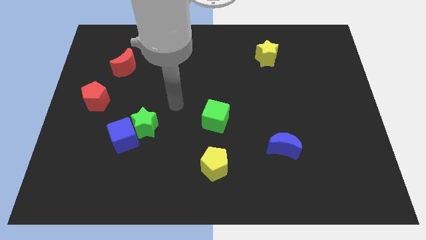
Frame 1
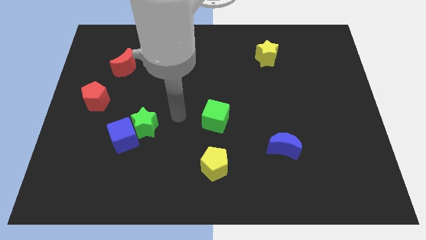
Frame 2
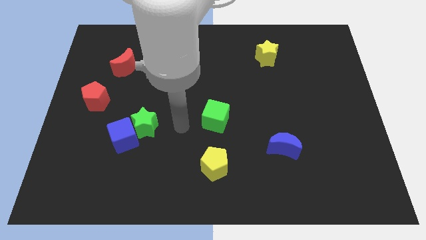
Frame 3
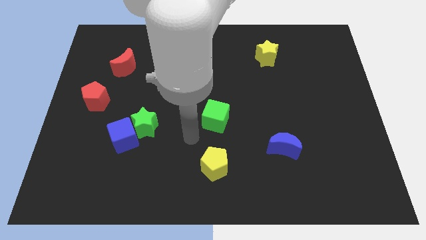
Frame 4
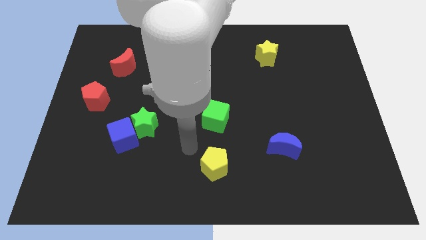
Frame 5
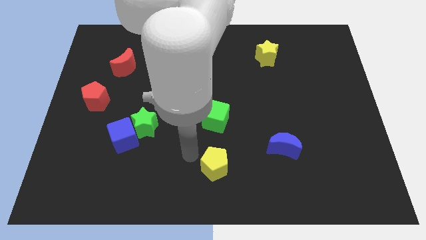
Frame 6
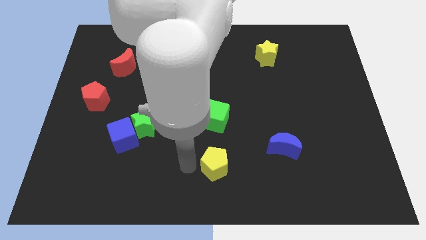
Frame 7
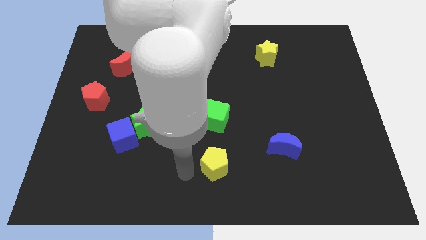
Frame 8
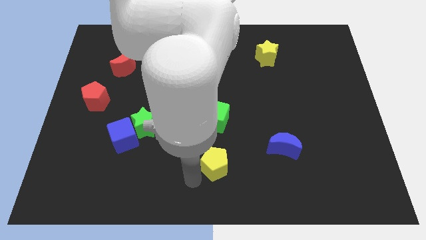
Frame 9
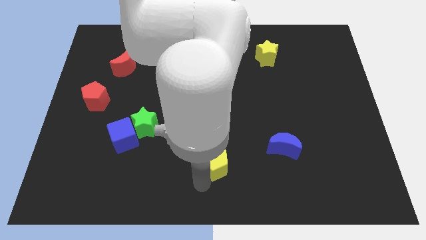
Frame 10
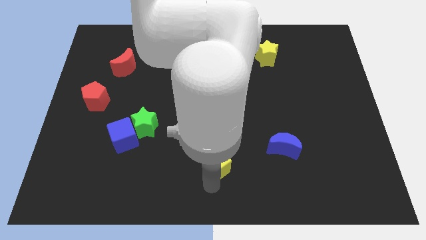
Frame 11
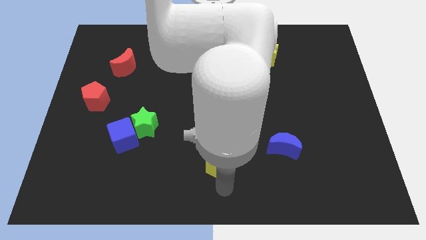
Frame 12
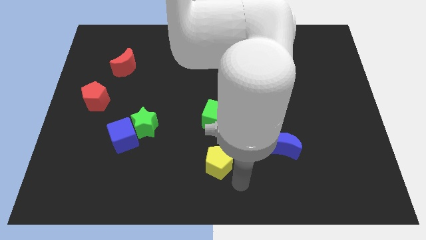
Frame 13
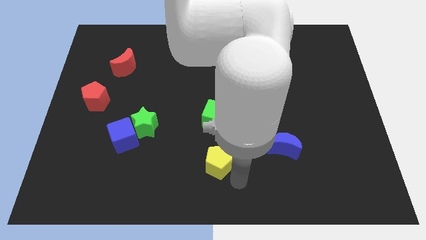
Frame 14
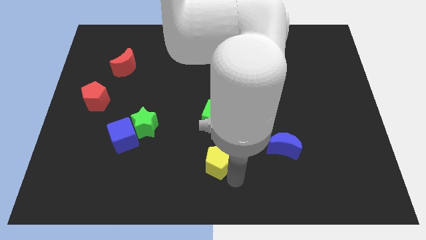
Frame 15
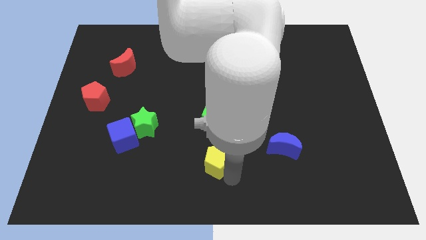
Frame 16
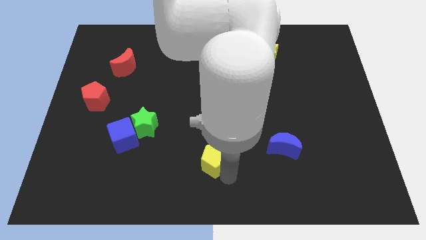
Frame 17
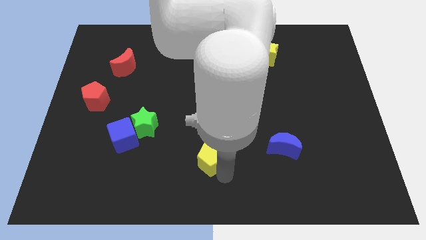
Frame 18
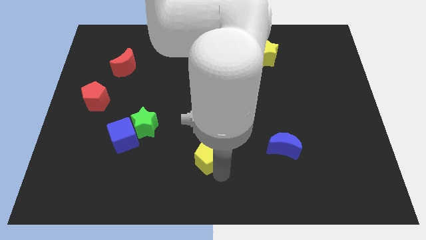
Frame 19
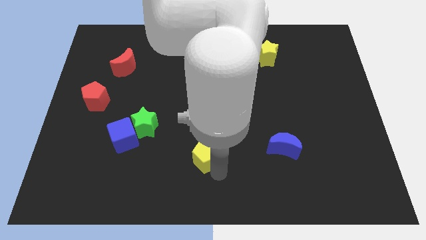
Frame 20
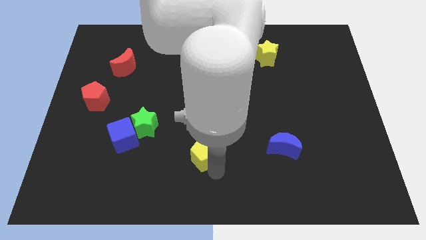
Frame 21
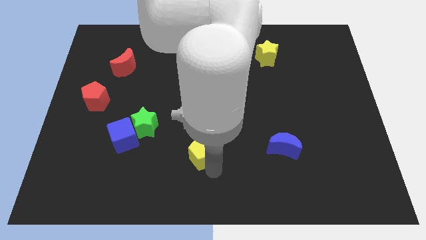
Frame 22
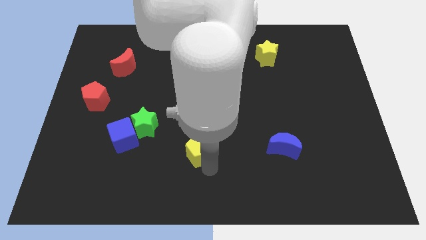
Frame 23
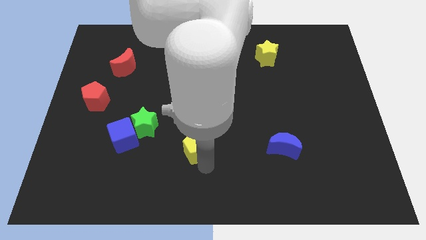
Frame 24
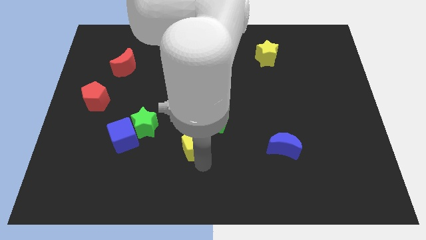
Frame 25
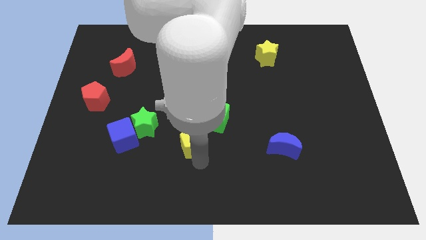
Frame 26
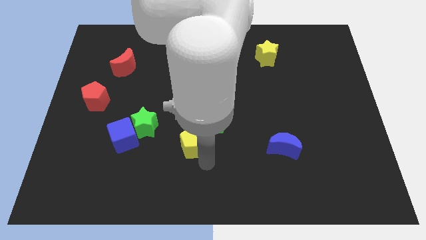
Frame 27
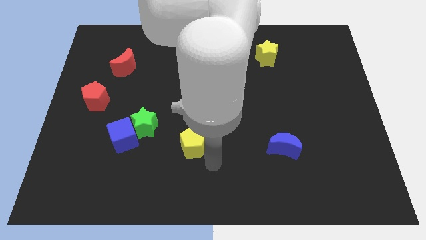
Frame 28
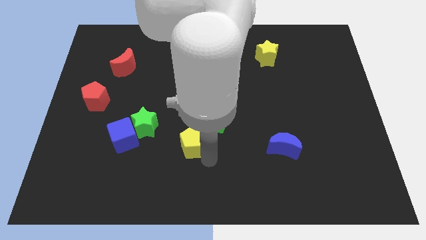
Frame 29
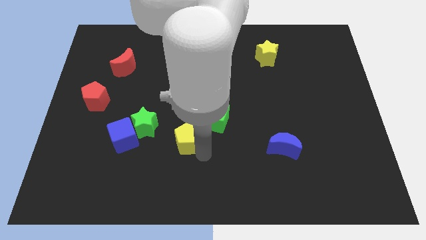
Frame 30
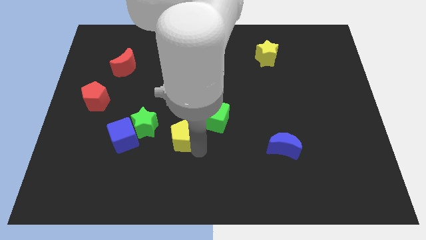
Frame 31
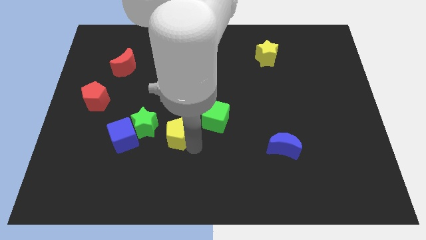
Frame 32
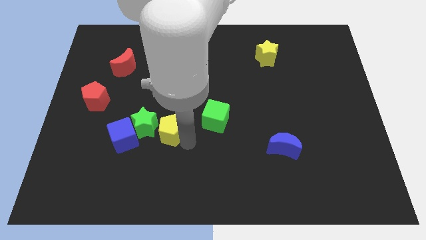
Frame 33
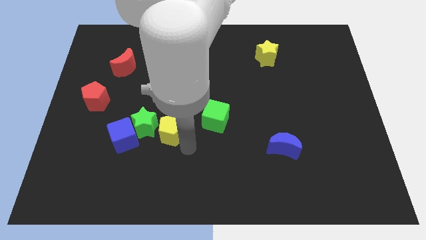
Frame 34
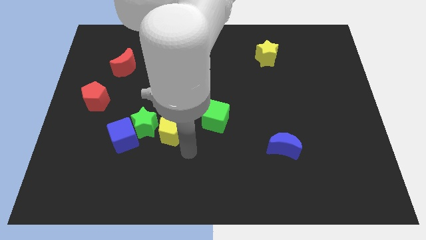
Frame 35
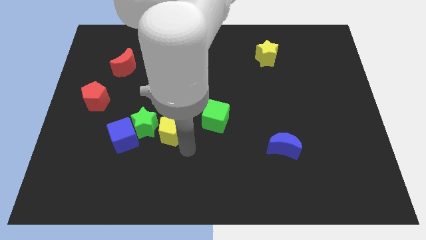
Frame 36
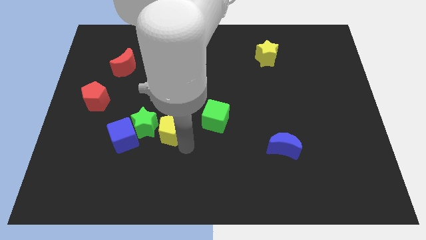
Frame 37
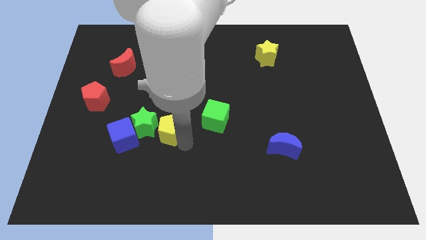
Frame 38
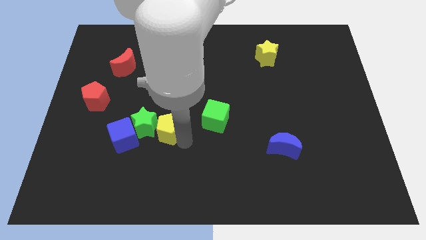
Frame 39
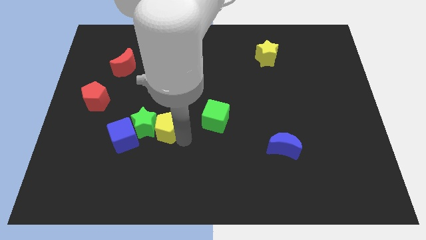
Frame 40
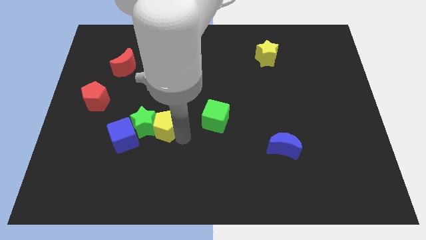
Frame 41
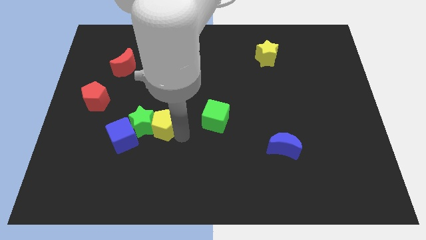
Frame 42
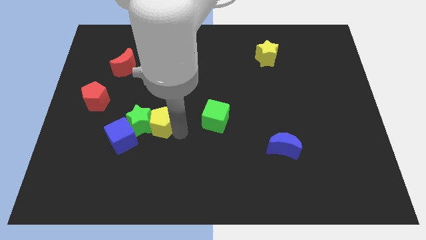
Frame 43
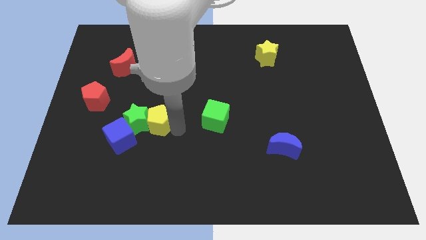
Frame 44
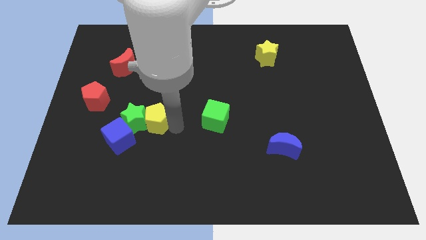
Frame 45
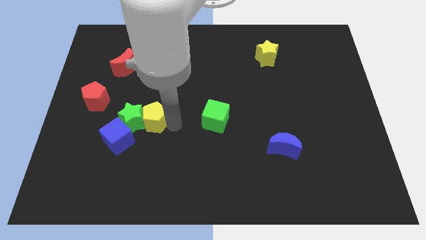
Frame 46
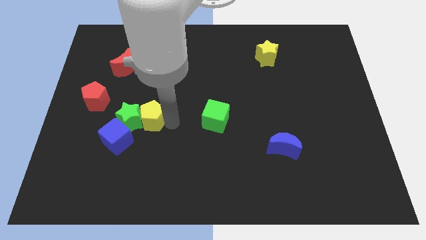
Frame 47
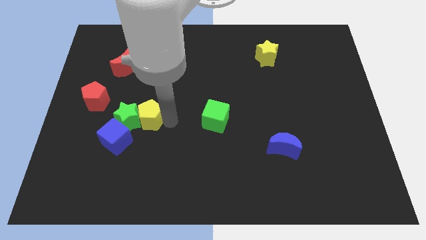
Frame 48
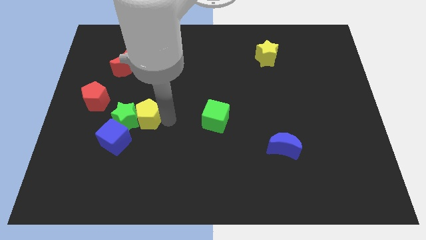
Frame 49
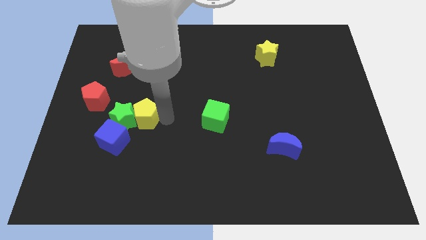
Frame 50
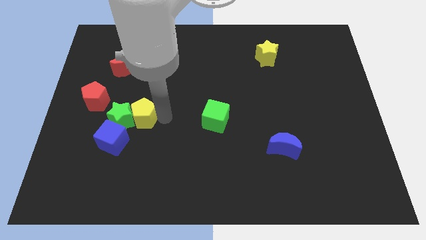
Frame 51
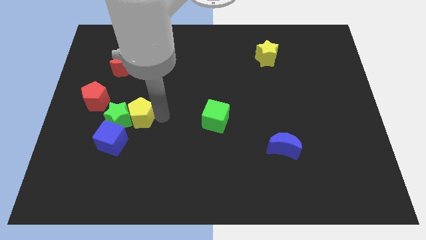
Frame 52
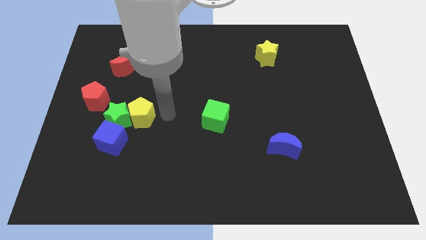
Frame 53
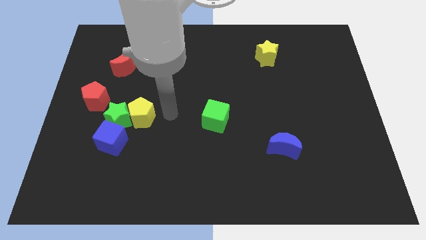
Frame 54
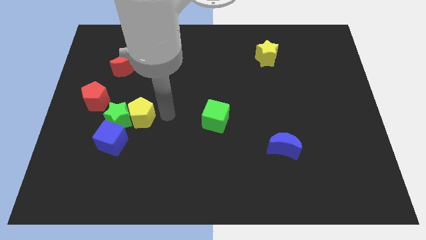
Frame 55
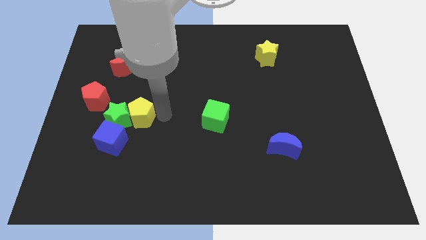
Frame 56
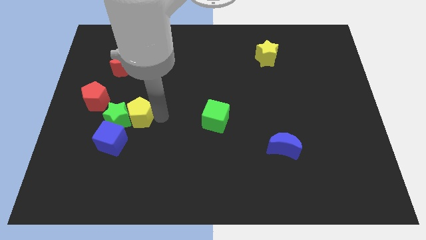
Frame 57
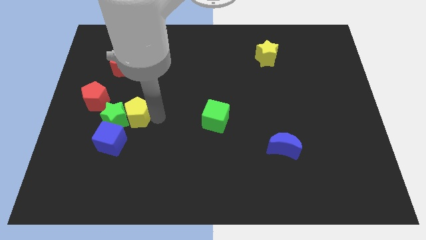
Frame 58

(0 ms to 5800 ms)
push the yellow pentagon to the bottom right of the red pentagon

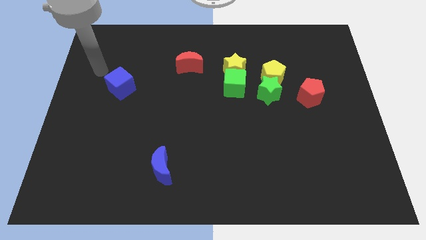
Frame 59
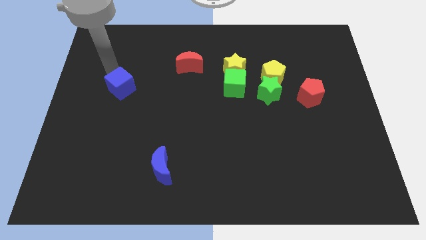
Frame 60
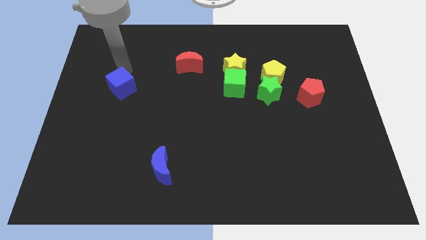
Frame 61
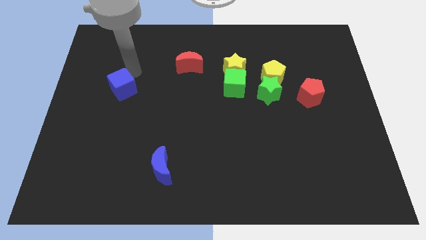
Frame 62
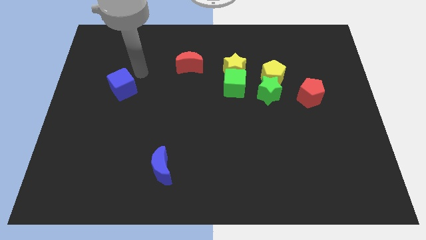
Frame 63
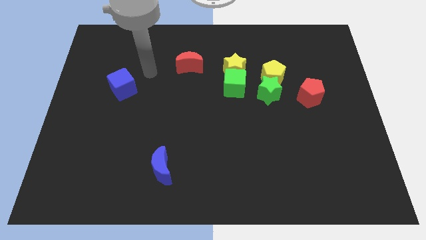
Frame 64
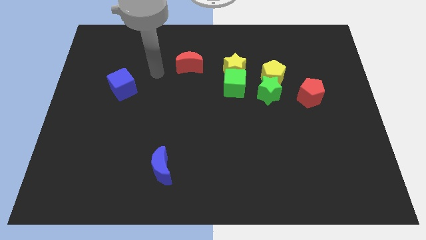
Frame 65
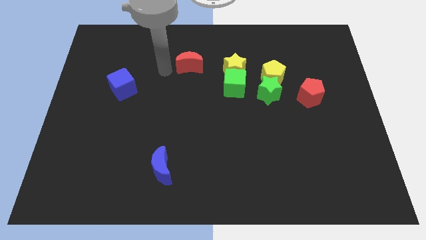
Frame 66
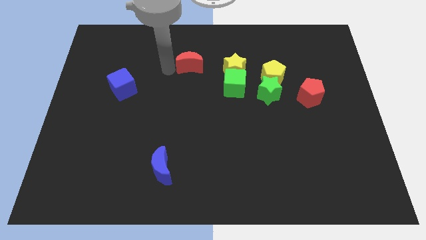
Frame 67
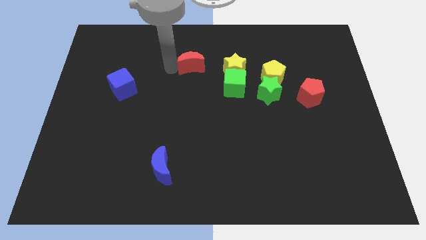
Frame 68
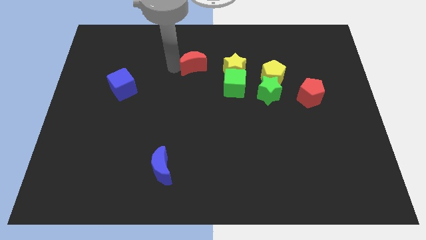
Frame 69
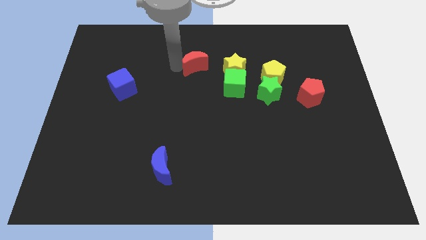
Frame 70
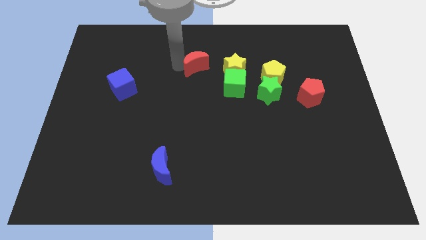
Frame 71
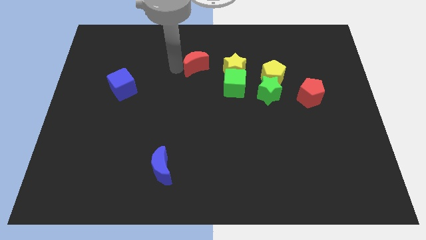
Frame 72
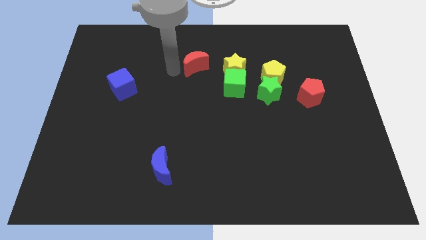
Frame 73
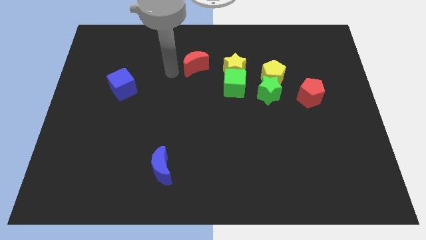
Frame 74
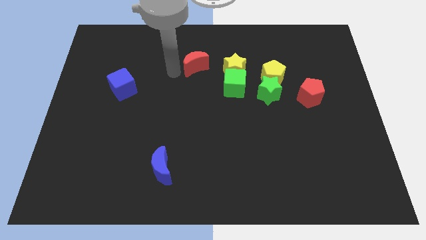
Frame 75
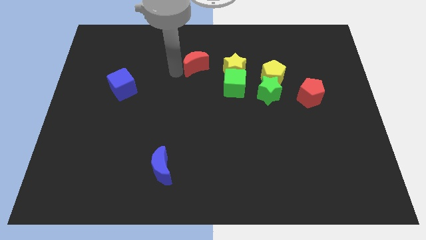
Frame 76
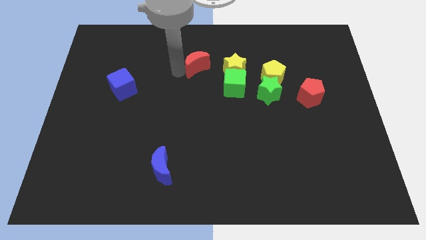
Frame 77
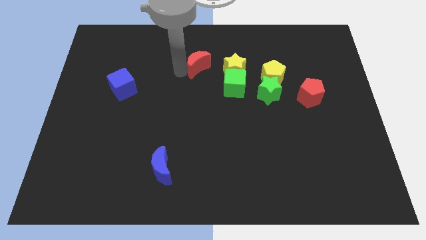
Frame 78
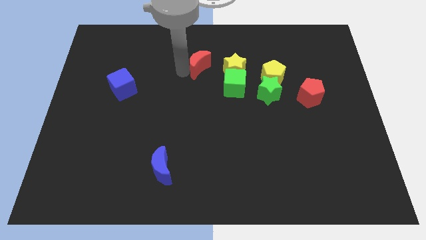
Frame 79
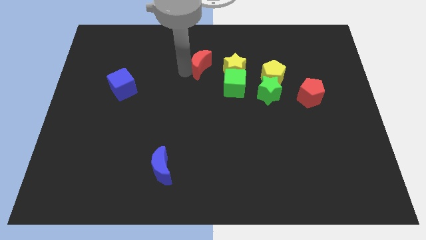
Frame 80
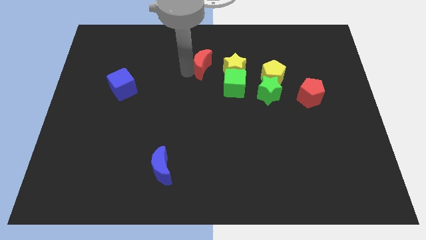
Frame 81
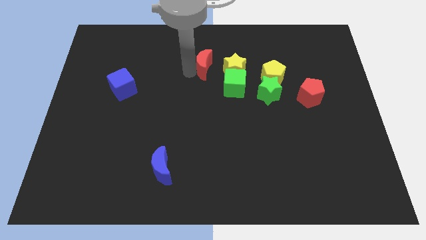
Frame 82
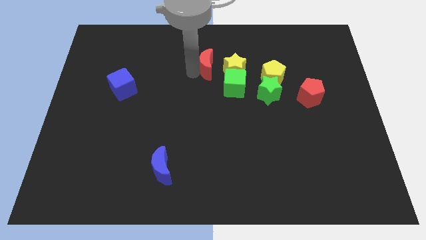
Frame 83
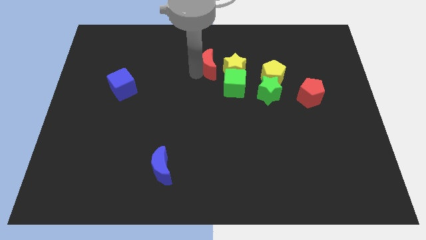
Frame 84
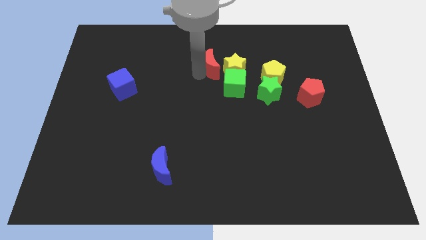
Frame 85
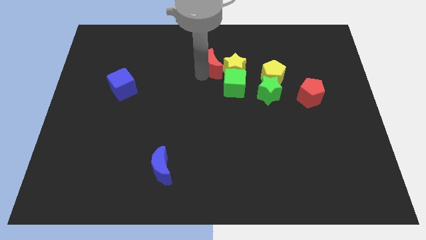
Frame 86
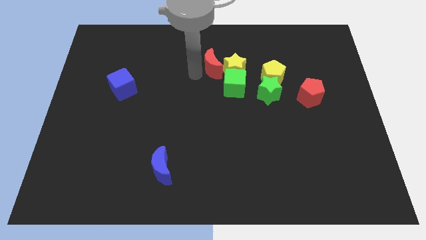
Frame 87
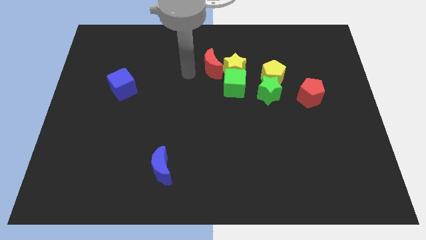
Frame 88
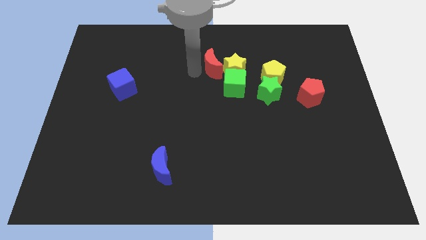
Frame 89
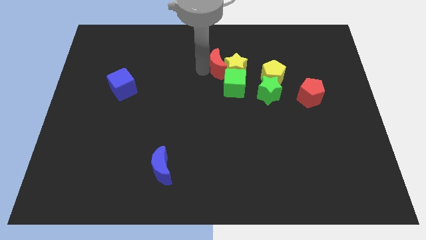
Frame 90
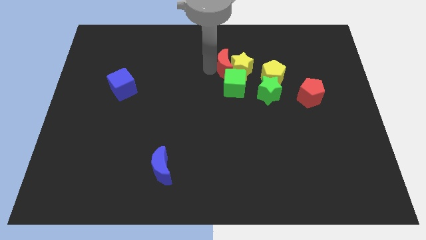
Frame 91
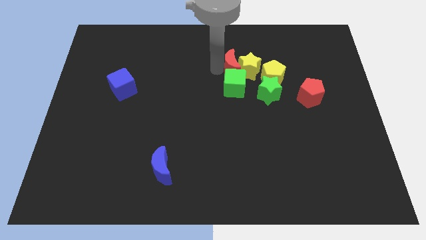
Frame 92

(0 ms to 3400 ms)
put the red moon to the top right of the green cube
